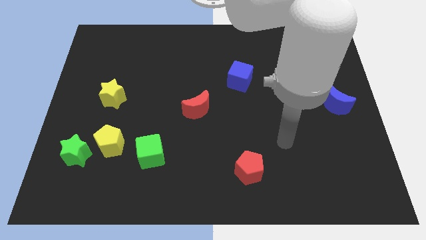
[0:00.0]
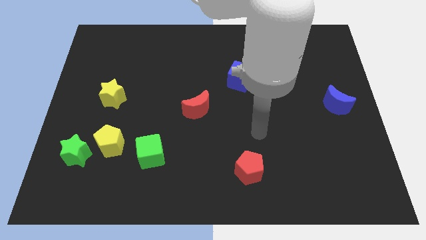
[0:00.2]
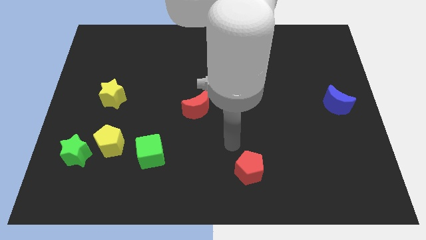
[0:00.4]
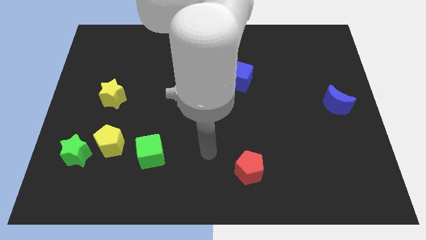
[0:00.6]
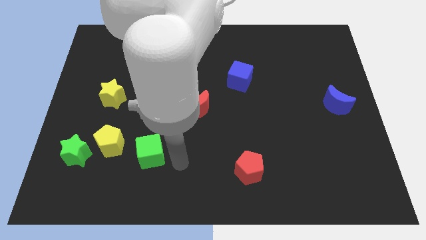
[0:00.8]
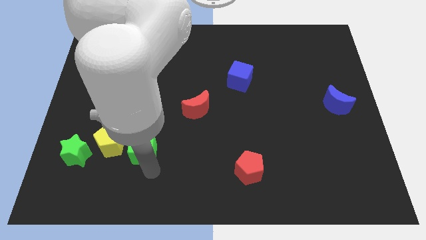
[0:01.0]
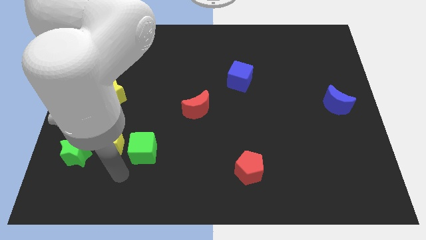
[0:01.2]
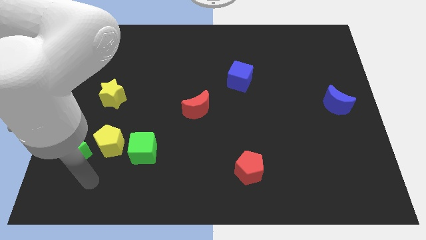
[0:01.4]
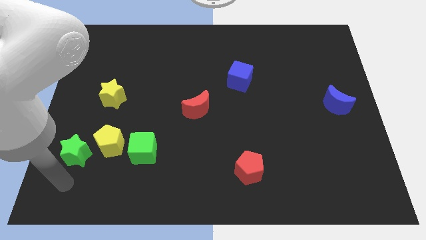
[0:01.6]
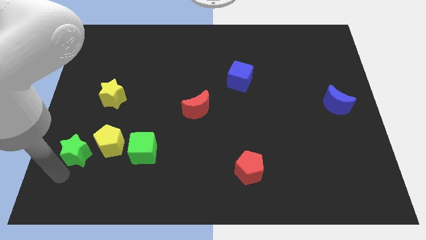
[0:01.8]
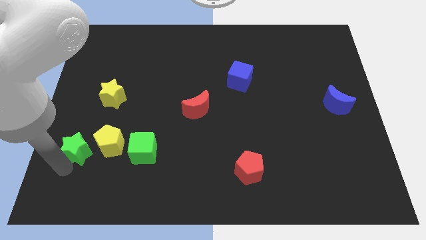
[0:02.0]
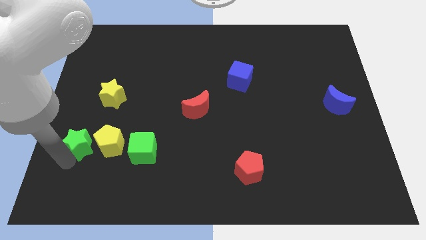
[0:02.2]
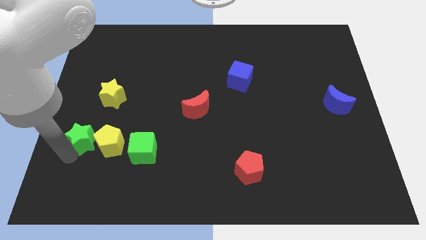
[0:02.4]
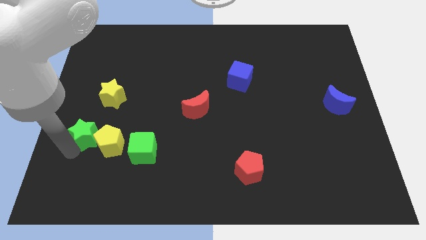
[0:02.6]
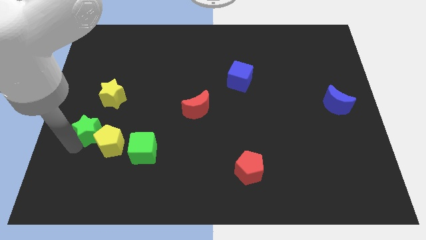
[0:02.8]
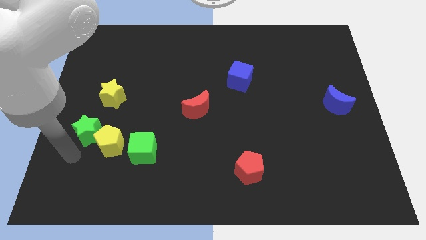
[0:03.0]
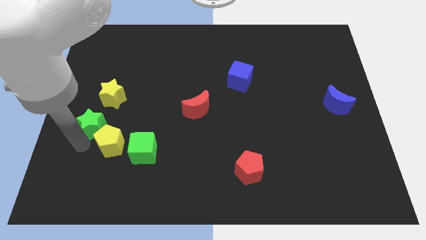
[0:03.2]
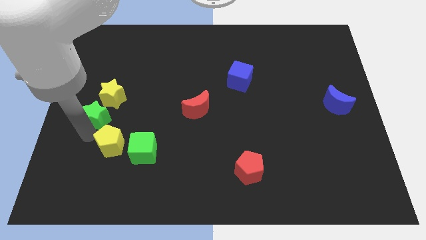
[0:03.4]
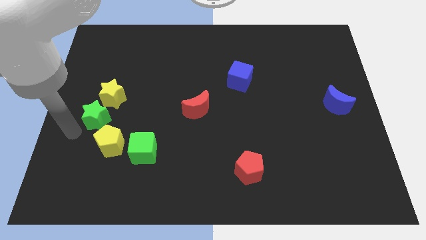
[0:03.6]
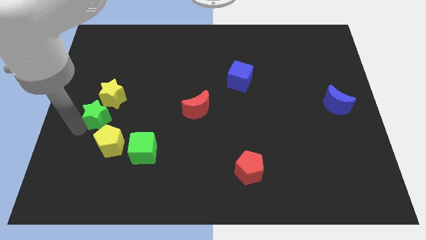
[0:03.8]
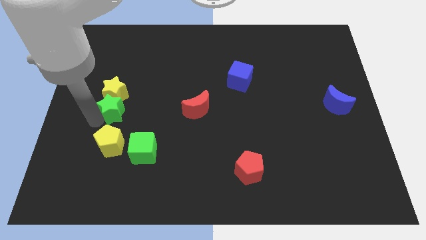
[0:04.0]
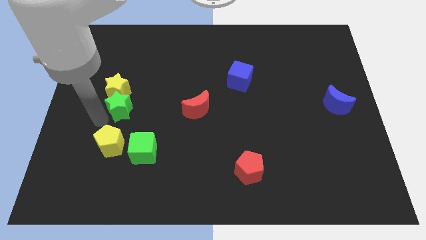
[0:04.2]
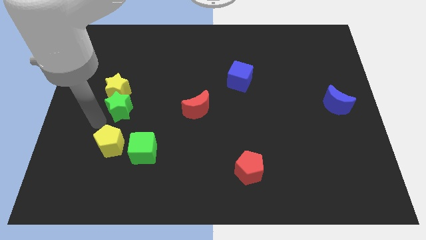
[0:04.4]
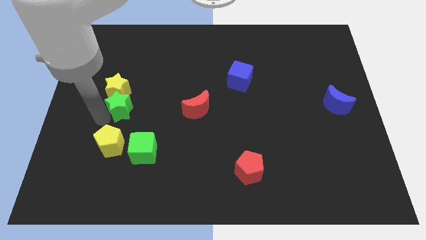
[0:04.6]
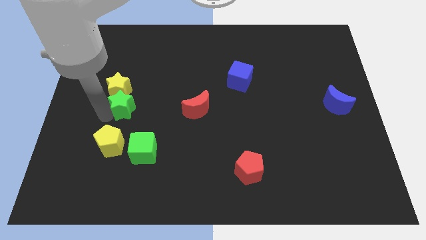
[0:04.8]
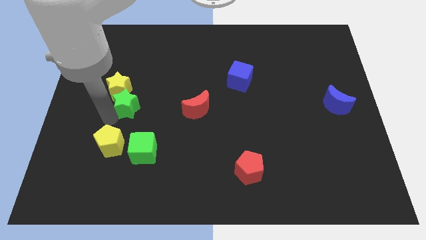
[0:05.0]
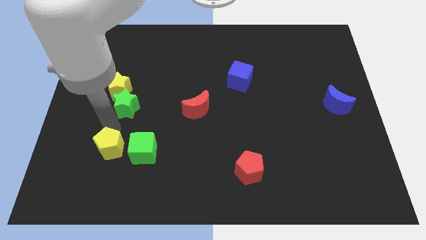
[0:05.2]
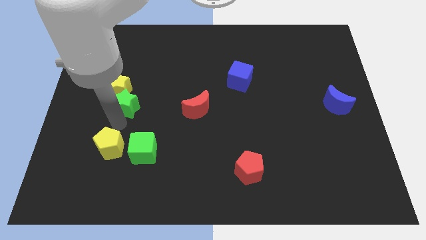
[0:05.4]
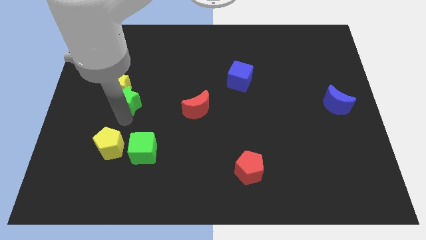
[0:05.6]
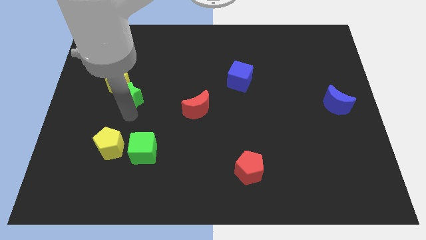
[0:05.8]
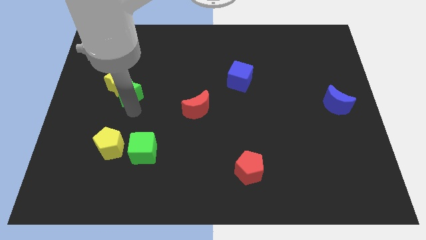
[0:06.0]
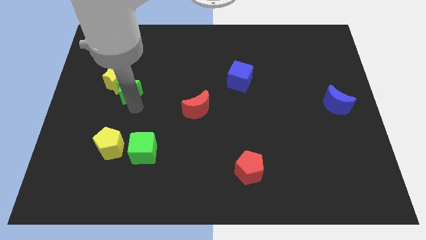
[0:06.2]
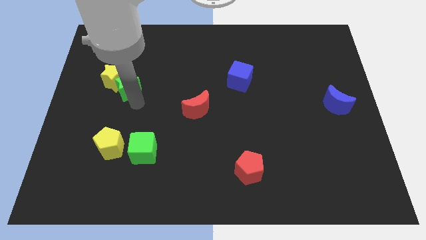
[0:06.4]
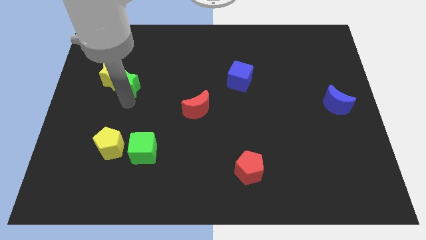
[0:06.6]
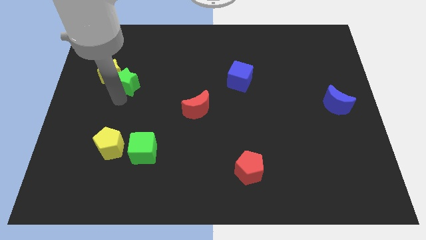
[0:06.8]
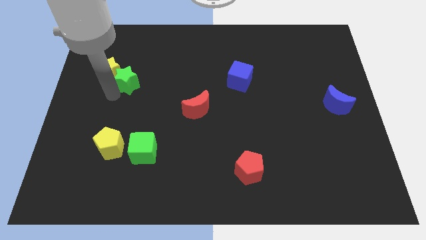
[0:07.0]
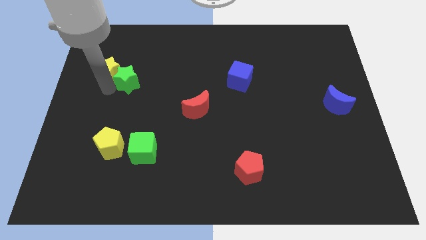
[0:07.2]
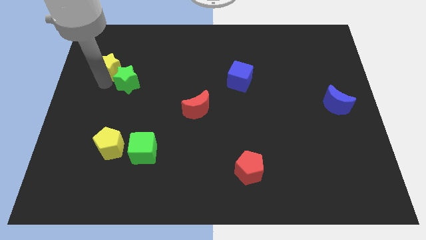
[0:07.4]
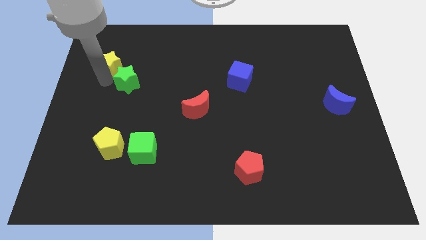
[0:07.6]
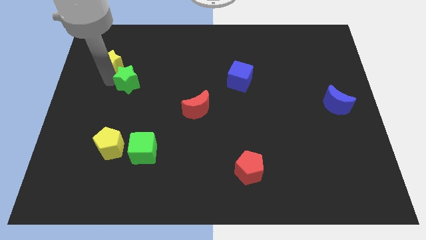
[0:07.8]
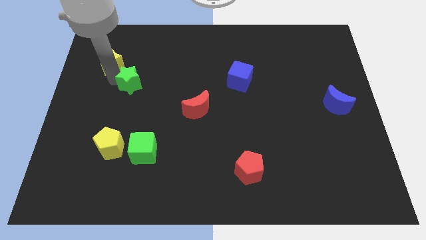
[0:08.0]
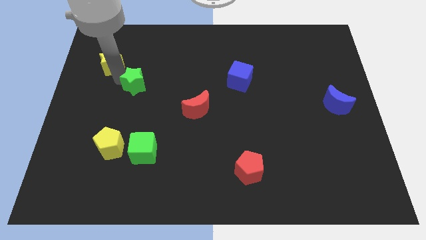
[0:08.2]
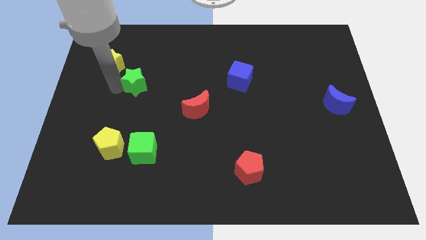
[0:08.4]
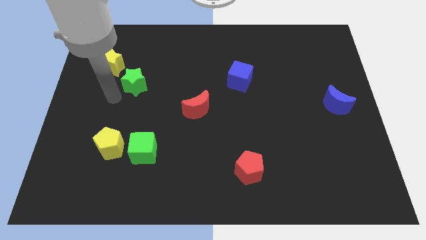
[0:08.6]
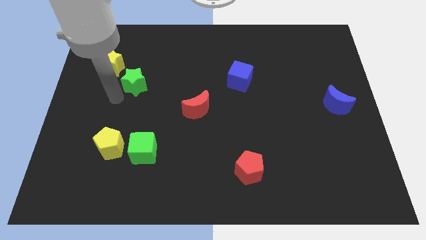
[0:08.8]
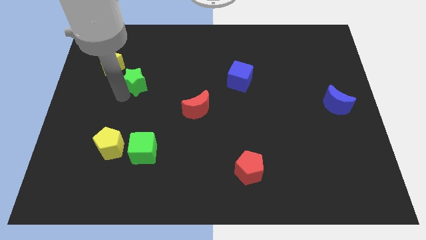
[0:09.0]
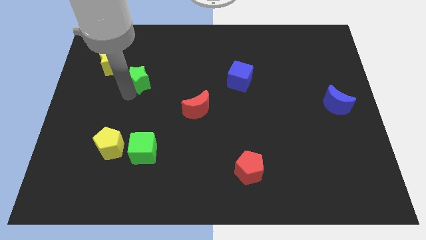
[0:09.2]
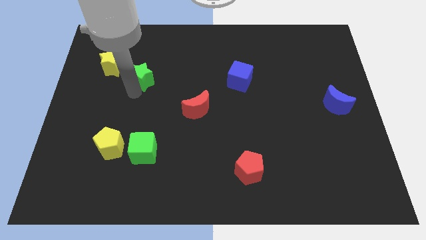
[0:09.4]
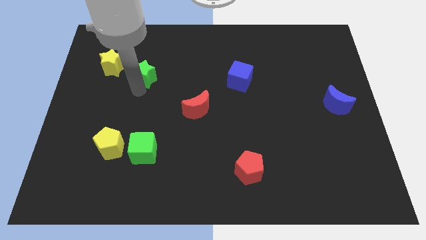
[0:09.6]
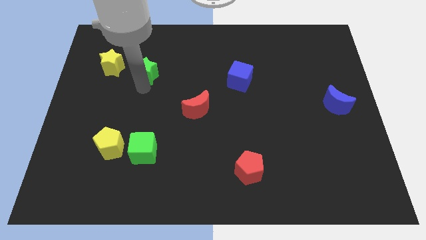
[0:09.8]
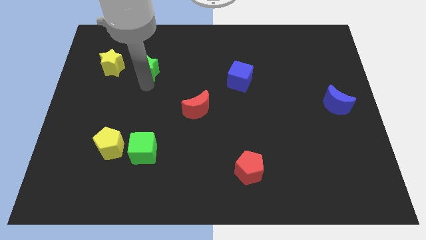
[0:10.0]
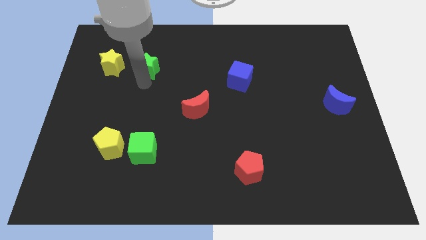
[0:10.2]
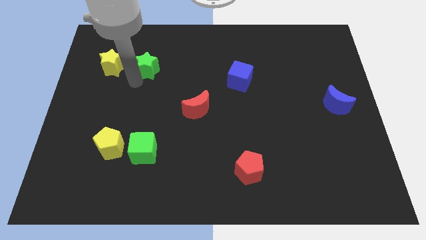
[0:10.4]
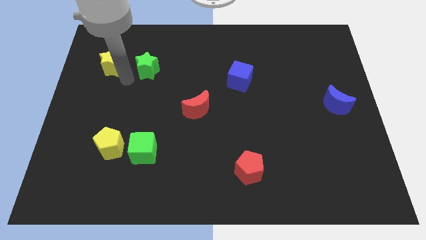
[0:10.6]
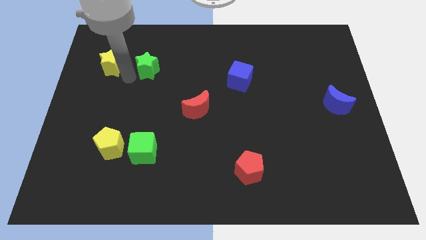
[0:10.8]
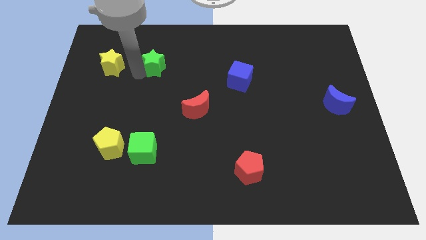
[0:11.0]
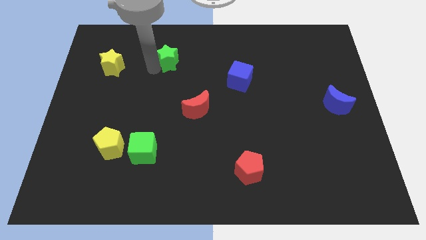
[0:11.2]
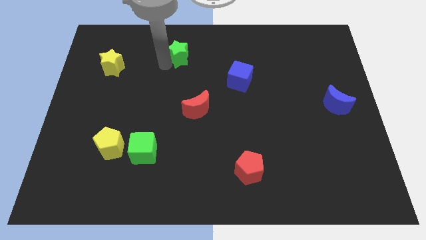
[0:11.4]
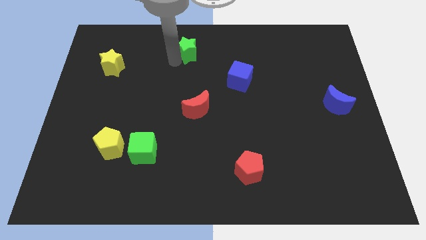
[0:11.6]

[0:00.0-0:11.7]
push the green star to the towards your base

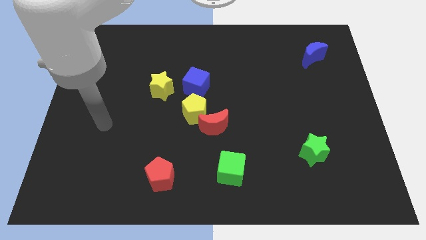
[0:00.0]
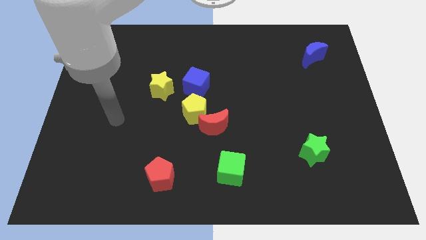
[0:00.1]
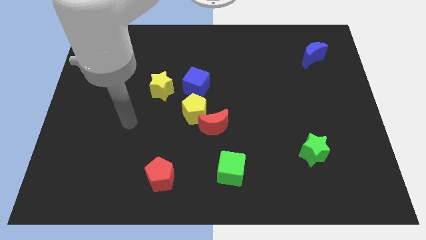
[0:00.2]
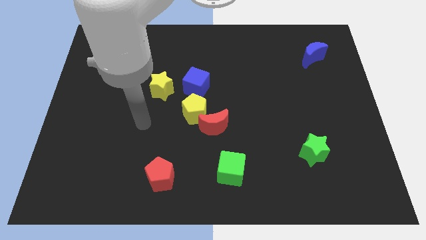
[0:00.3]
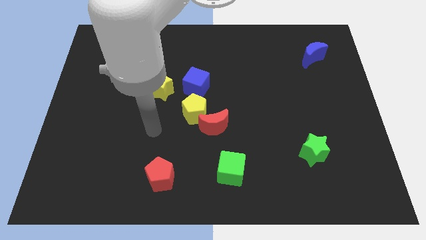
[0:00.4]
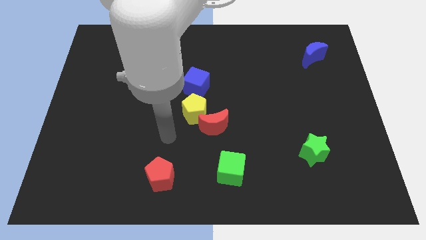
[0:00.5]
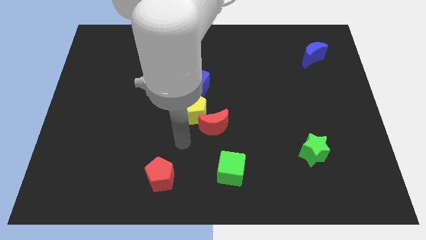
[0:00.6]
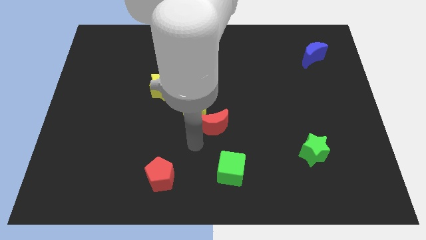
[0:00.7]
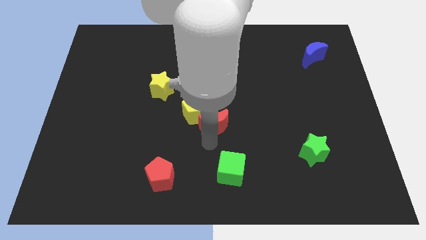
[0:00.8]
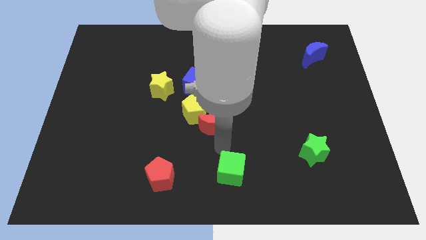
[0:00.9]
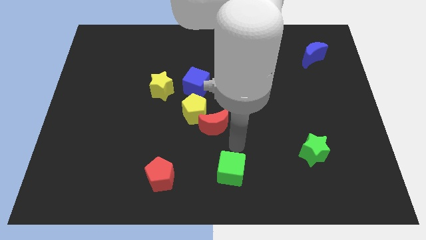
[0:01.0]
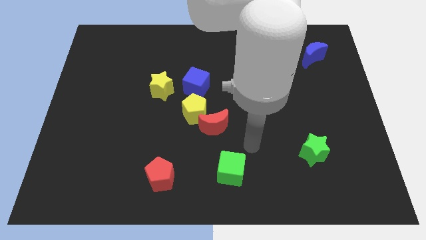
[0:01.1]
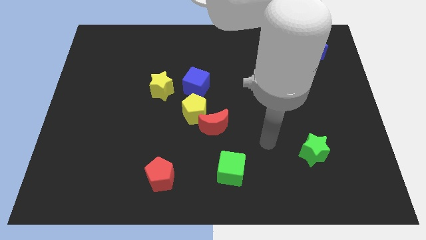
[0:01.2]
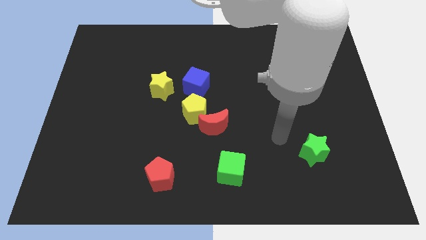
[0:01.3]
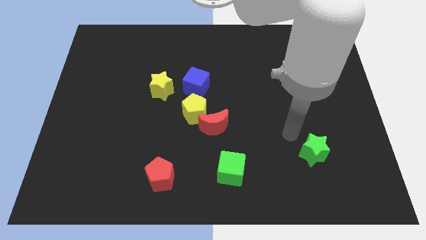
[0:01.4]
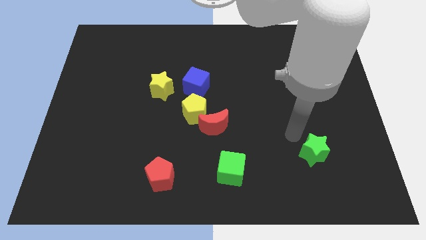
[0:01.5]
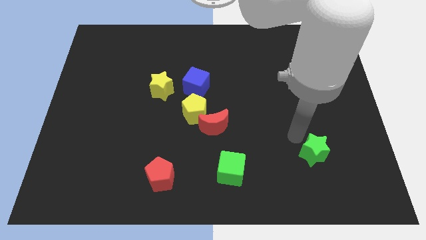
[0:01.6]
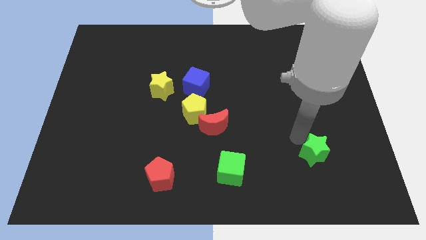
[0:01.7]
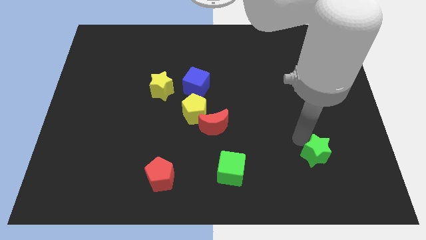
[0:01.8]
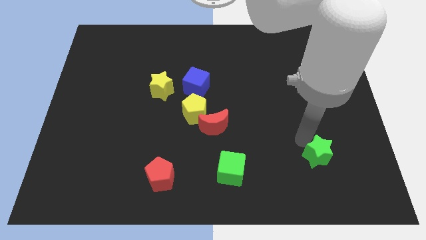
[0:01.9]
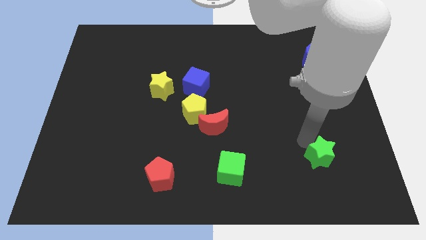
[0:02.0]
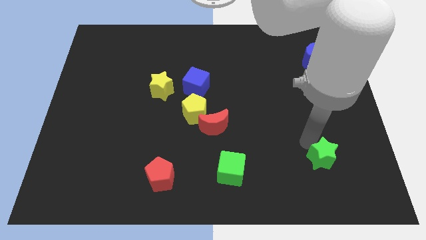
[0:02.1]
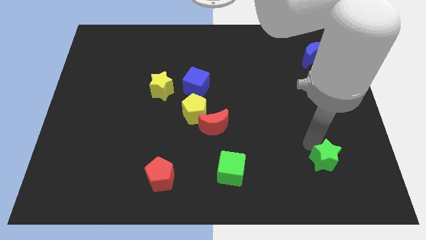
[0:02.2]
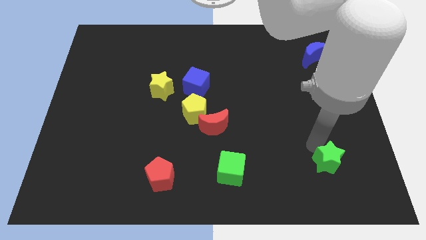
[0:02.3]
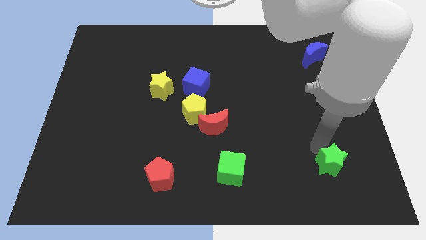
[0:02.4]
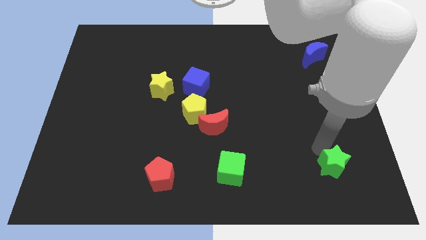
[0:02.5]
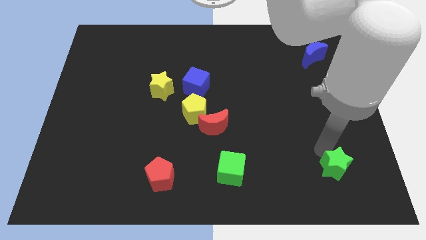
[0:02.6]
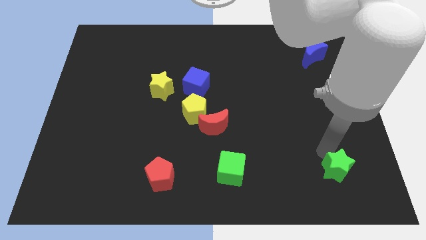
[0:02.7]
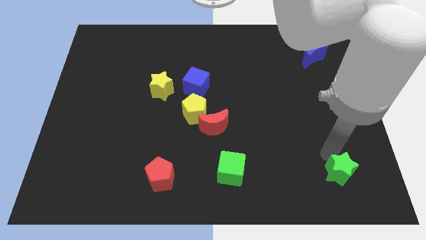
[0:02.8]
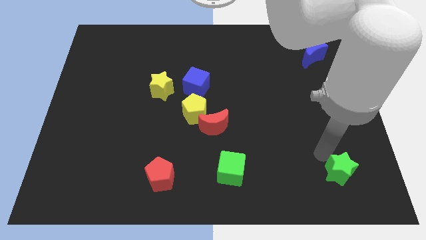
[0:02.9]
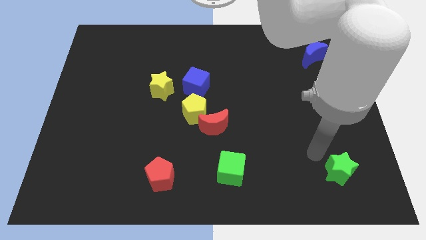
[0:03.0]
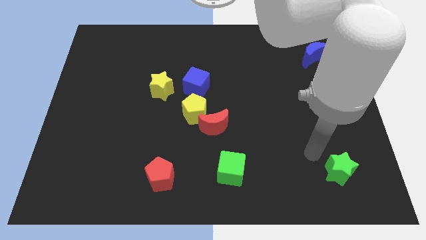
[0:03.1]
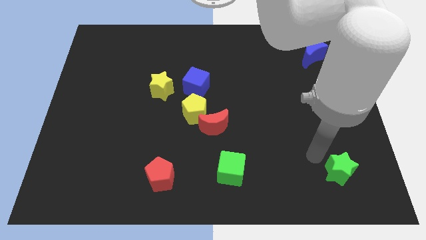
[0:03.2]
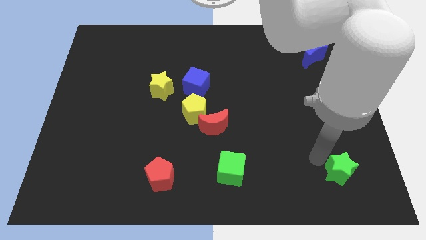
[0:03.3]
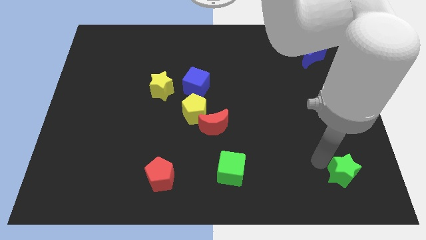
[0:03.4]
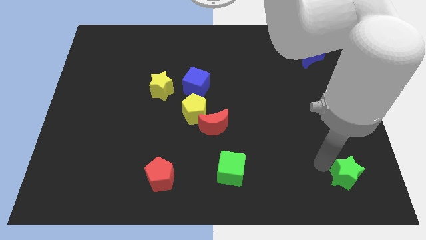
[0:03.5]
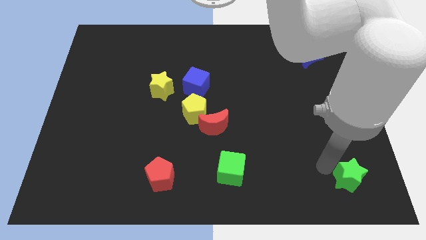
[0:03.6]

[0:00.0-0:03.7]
put the green star to the lower right corner
